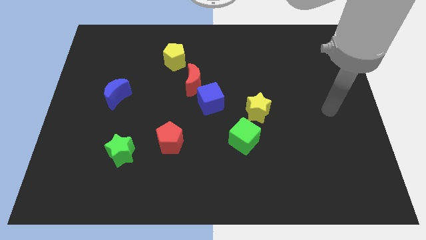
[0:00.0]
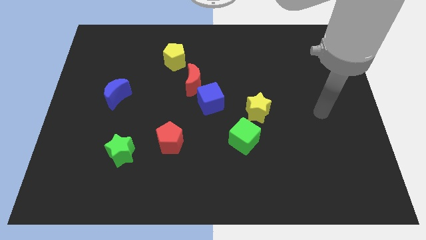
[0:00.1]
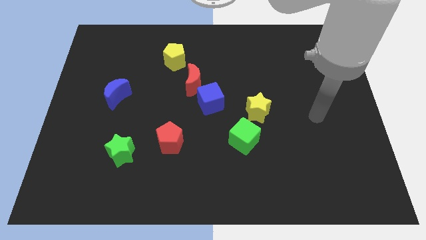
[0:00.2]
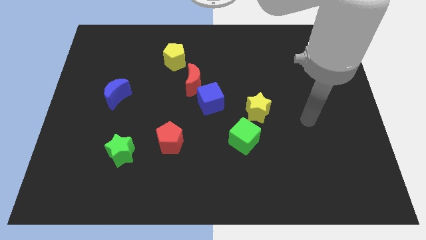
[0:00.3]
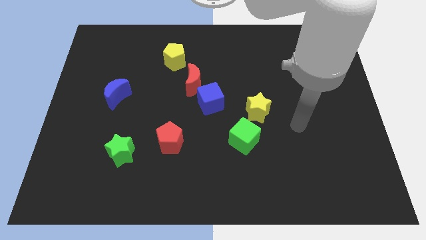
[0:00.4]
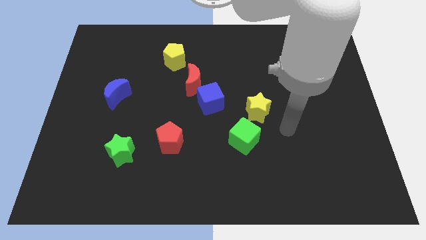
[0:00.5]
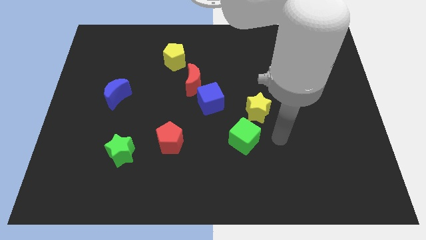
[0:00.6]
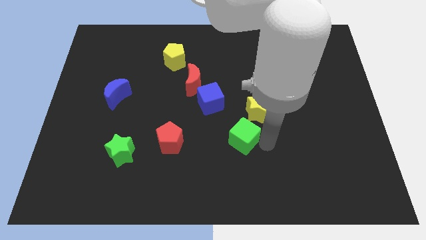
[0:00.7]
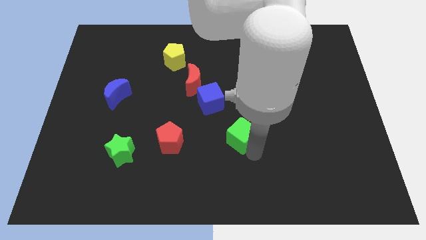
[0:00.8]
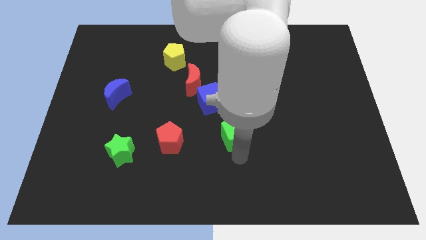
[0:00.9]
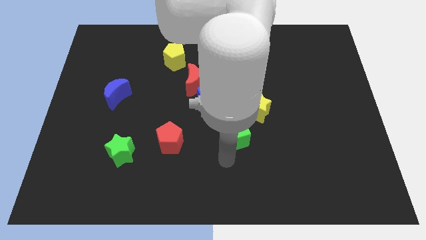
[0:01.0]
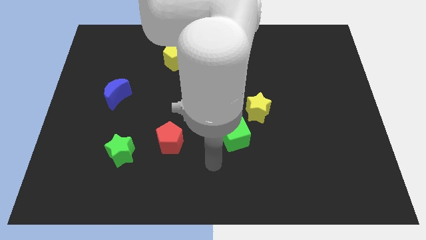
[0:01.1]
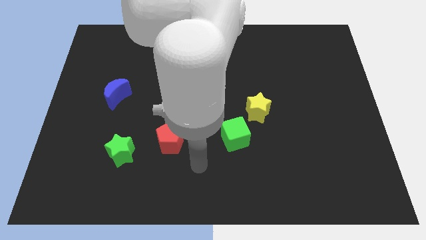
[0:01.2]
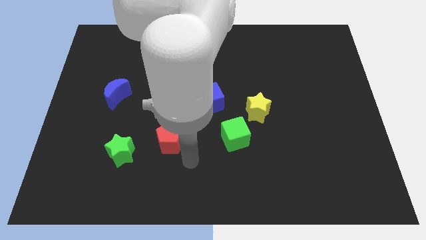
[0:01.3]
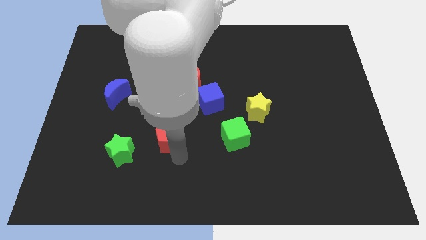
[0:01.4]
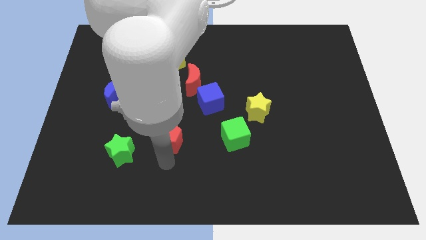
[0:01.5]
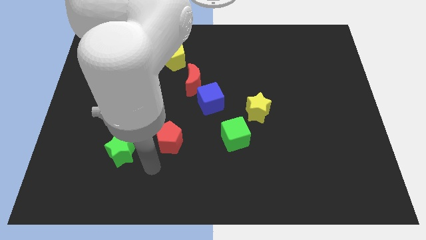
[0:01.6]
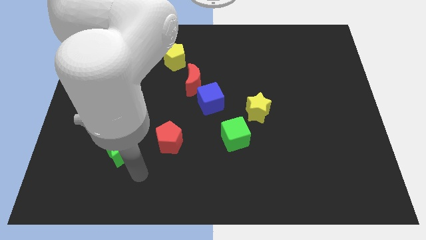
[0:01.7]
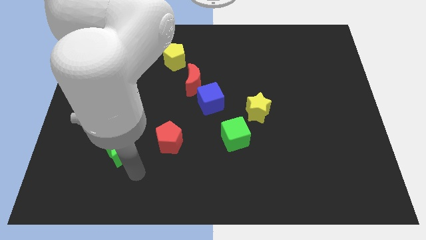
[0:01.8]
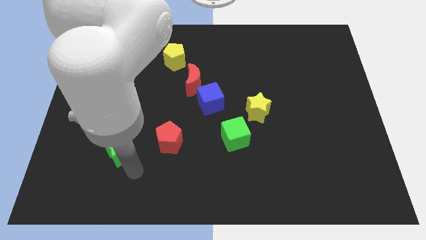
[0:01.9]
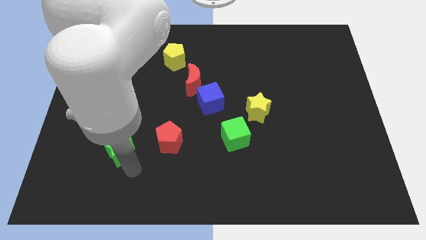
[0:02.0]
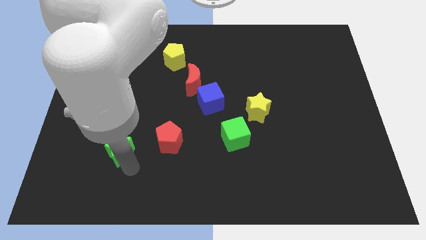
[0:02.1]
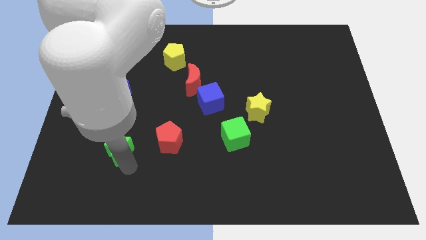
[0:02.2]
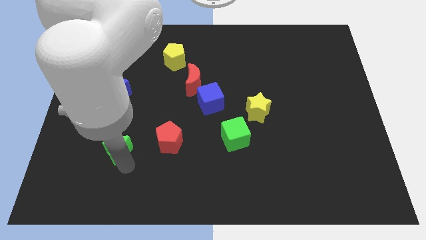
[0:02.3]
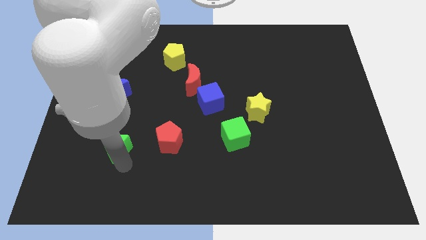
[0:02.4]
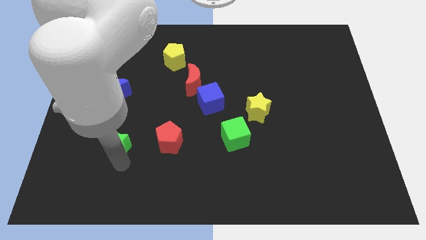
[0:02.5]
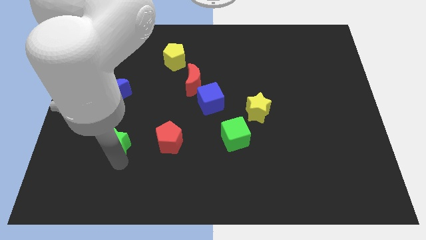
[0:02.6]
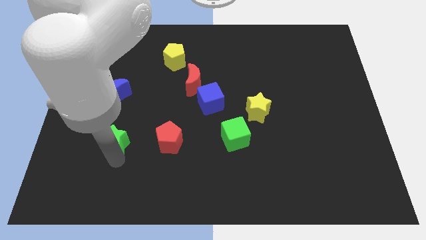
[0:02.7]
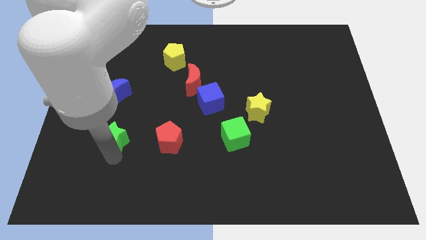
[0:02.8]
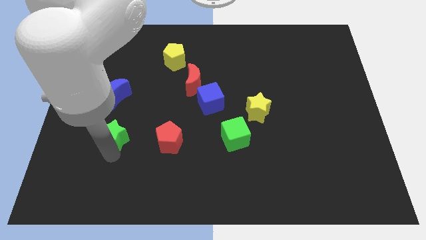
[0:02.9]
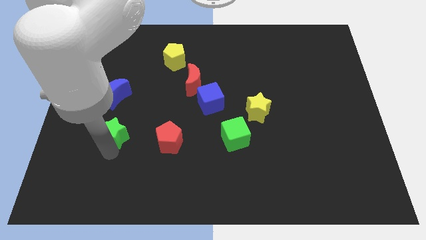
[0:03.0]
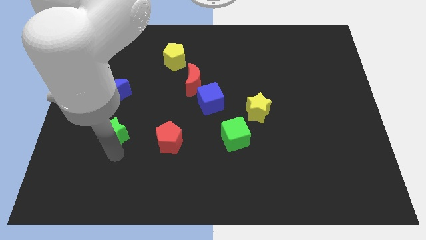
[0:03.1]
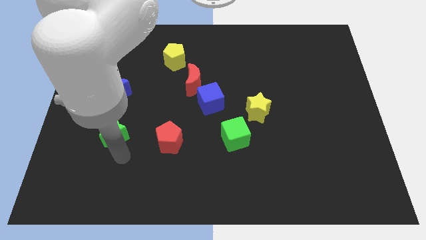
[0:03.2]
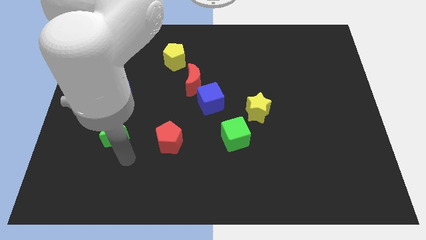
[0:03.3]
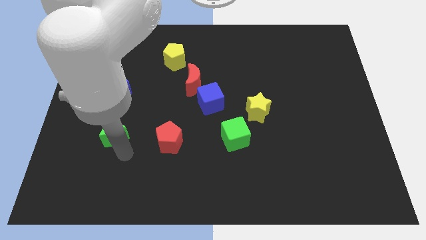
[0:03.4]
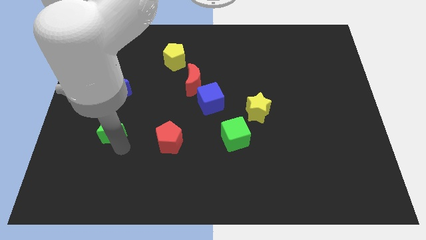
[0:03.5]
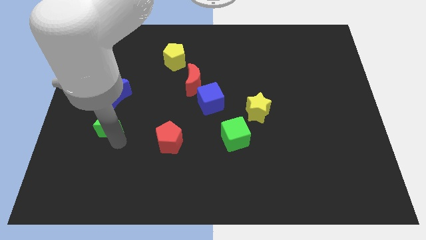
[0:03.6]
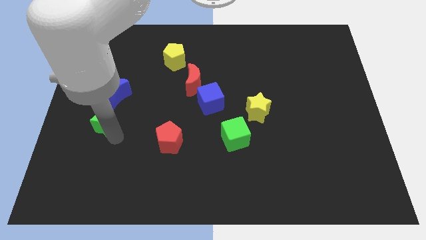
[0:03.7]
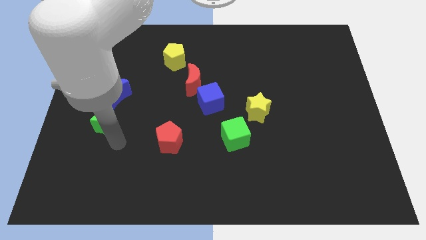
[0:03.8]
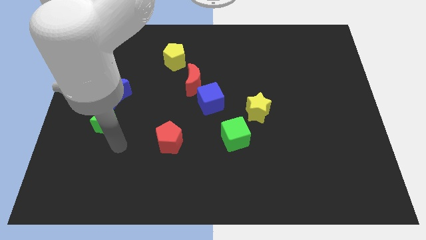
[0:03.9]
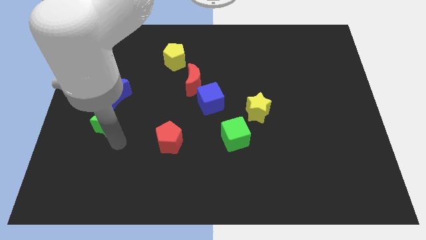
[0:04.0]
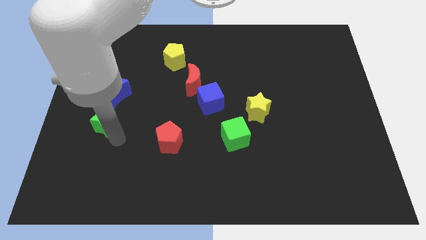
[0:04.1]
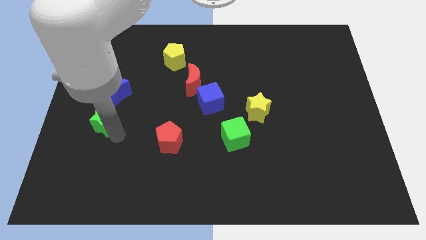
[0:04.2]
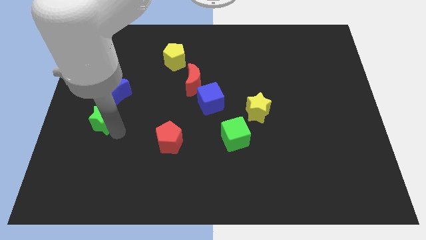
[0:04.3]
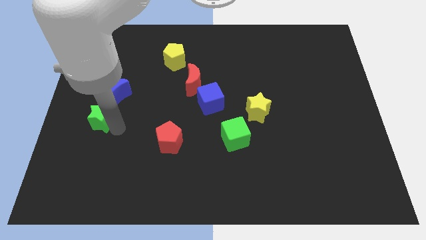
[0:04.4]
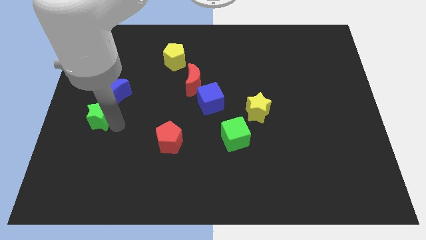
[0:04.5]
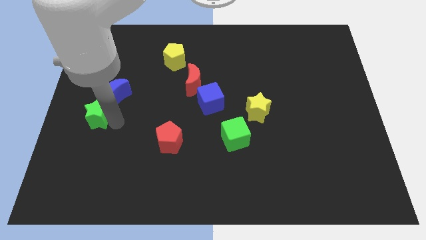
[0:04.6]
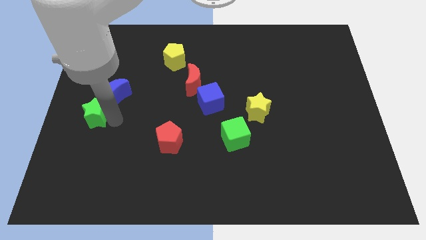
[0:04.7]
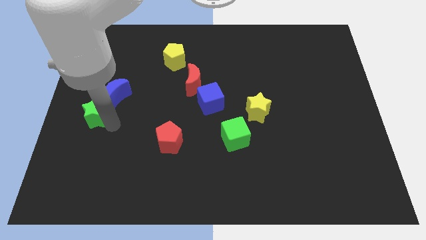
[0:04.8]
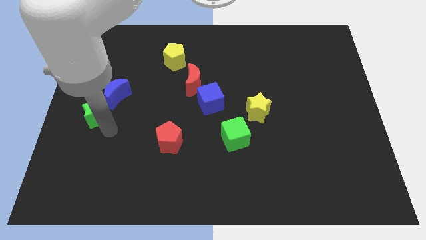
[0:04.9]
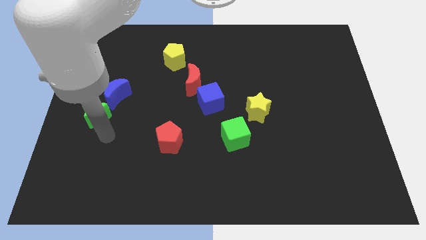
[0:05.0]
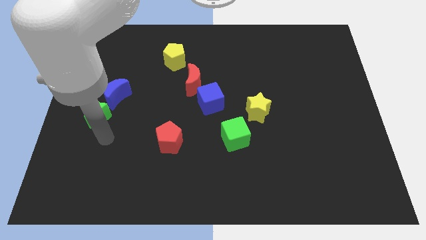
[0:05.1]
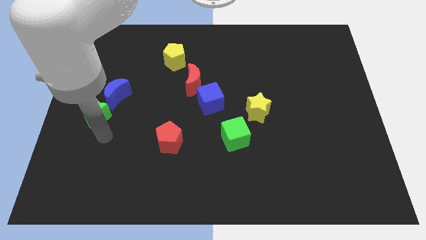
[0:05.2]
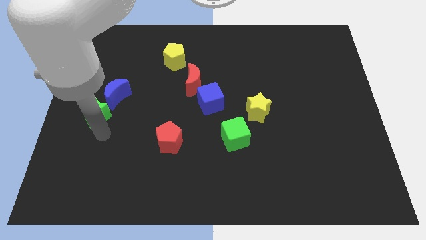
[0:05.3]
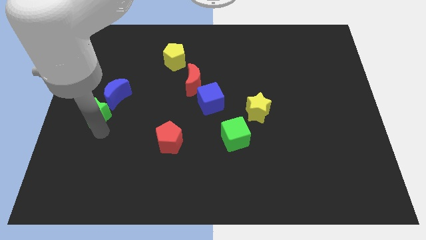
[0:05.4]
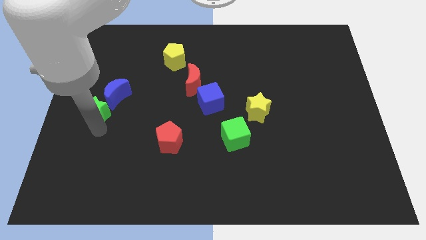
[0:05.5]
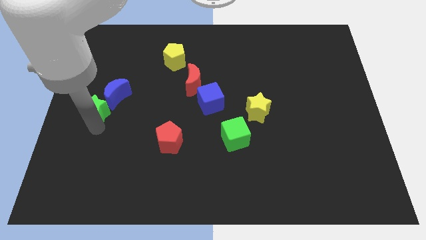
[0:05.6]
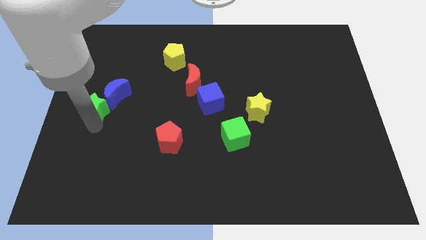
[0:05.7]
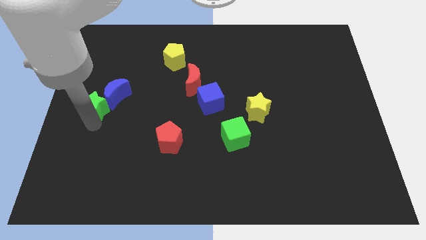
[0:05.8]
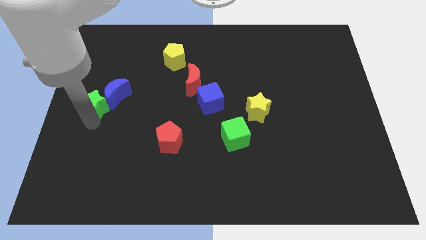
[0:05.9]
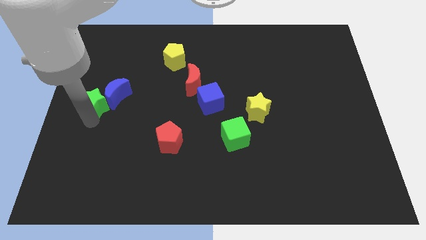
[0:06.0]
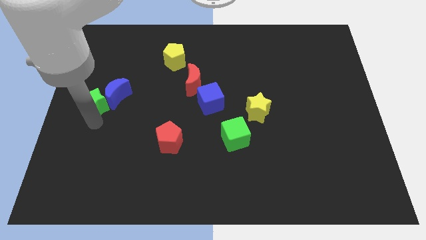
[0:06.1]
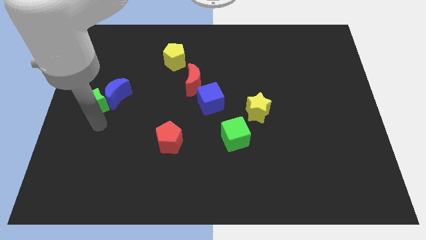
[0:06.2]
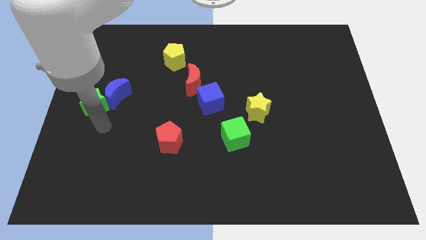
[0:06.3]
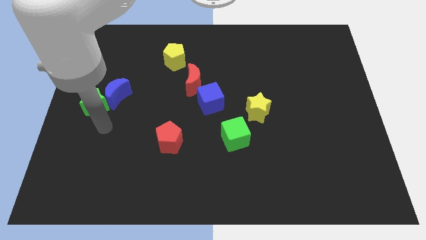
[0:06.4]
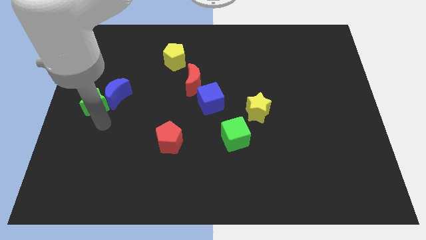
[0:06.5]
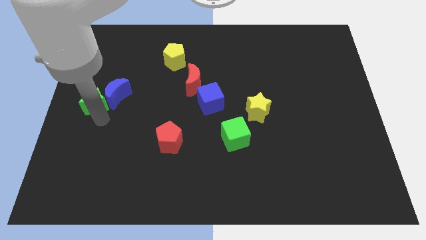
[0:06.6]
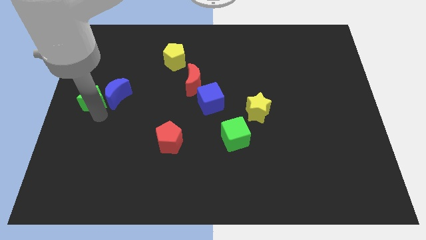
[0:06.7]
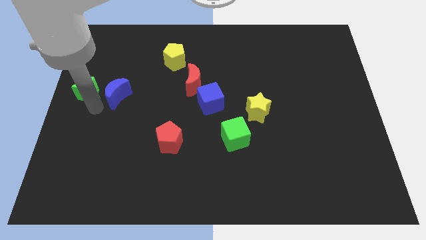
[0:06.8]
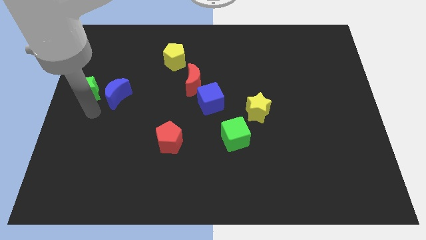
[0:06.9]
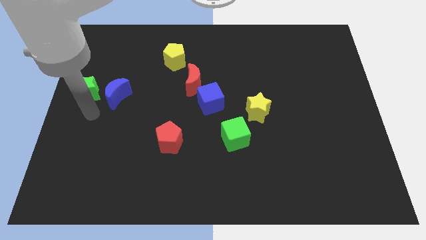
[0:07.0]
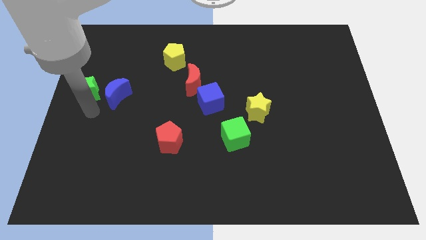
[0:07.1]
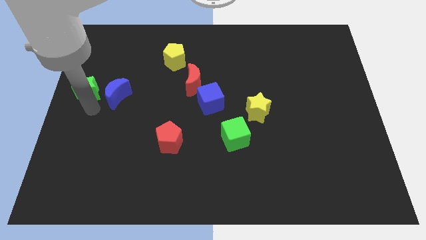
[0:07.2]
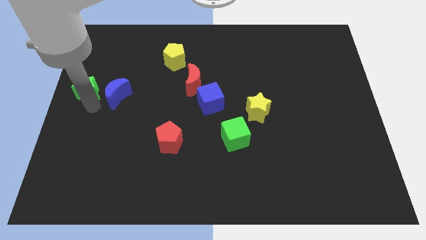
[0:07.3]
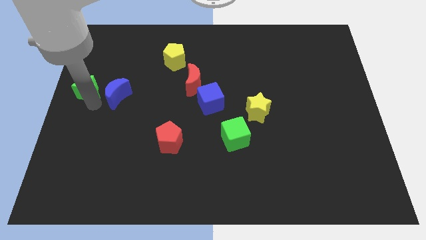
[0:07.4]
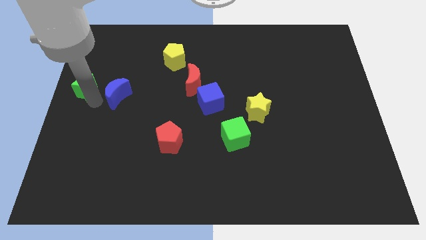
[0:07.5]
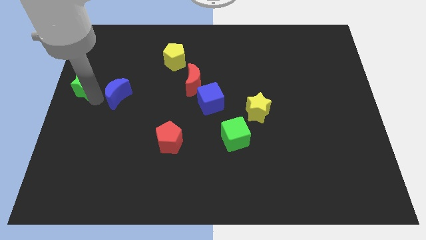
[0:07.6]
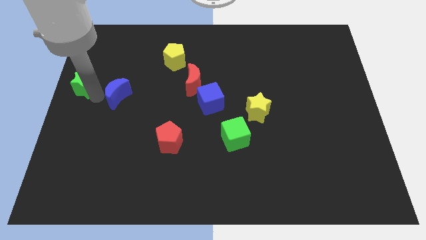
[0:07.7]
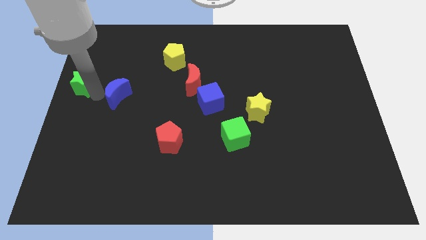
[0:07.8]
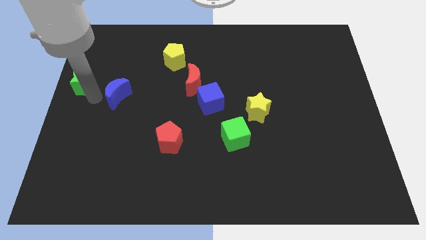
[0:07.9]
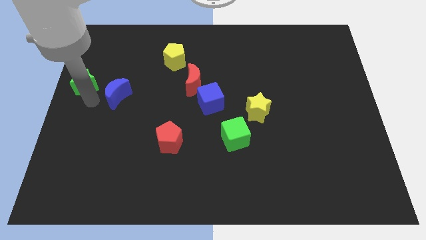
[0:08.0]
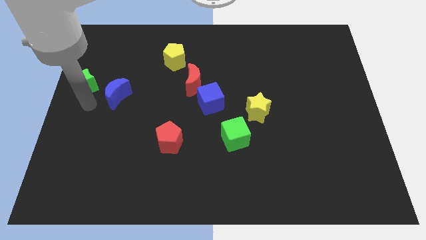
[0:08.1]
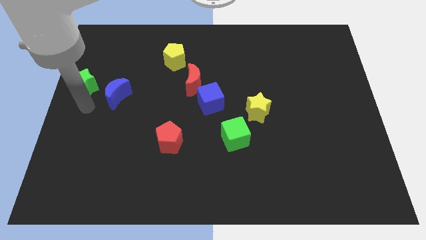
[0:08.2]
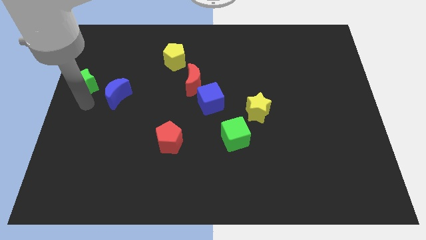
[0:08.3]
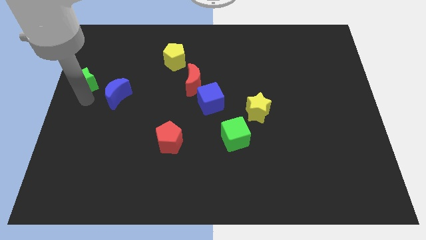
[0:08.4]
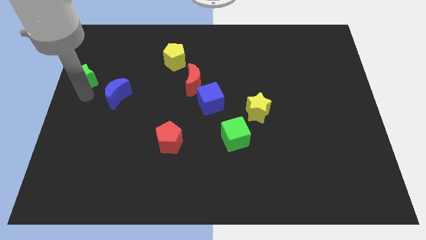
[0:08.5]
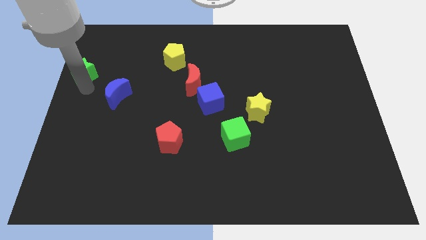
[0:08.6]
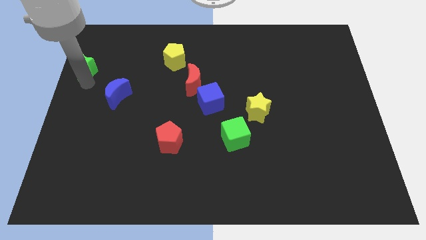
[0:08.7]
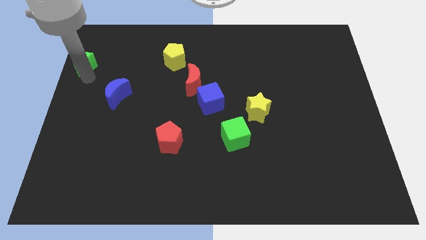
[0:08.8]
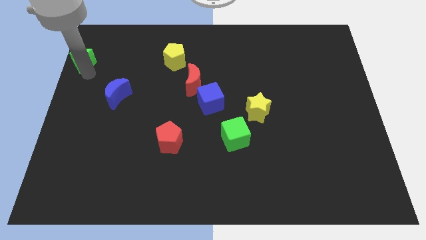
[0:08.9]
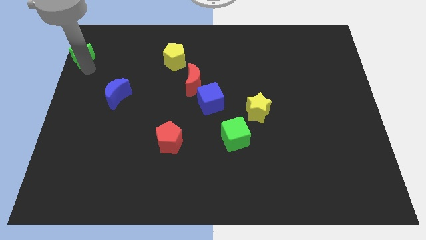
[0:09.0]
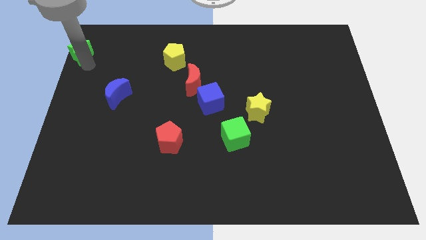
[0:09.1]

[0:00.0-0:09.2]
slide the green star to the top left
